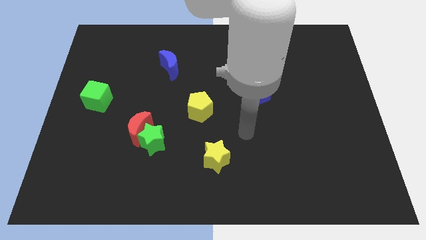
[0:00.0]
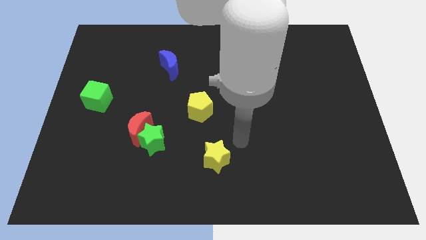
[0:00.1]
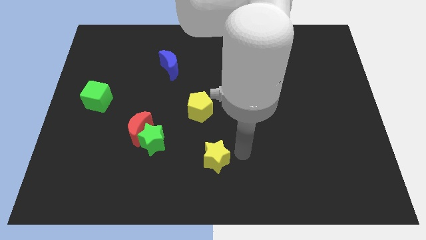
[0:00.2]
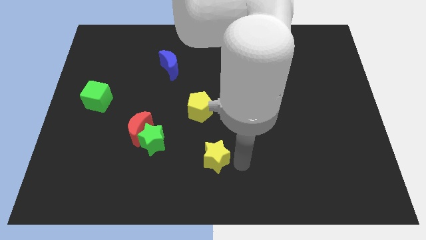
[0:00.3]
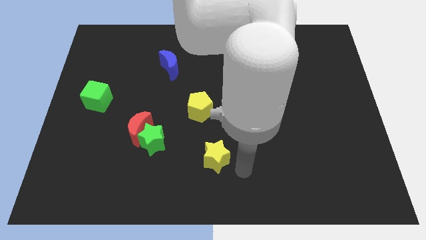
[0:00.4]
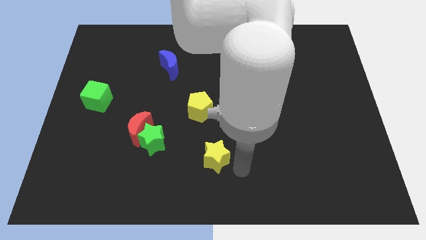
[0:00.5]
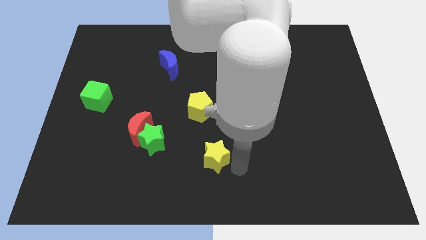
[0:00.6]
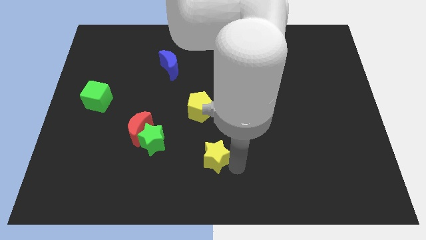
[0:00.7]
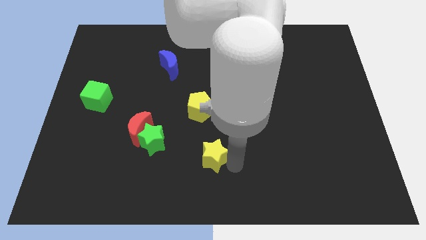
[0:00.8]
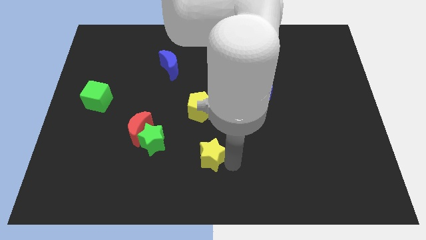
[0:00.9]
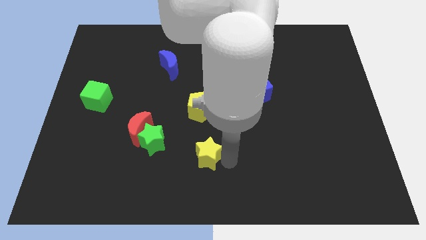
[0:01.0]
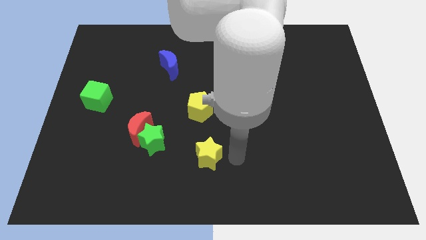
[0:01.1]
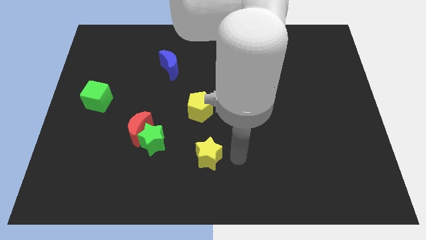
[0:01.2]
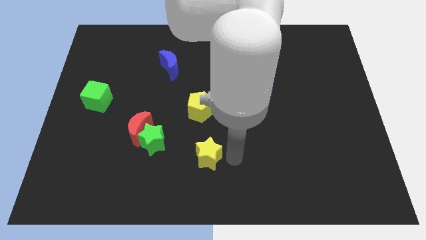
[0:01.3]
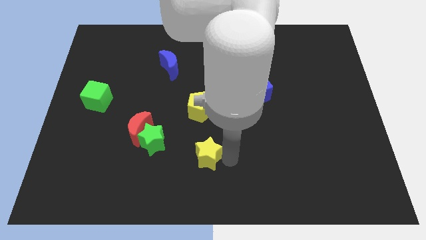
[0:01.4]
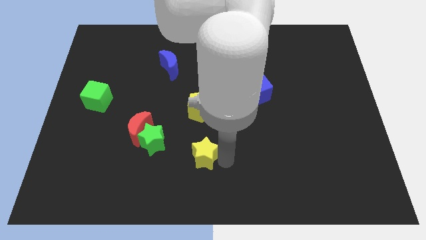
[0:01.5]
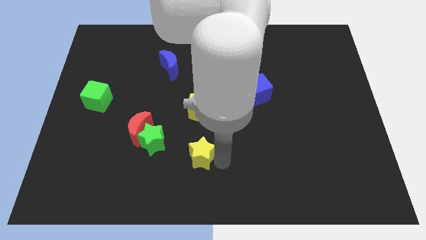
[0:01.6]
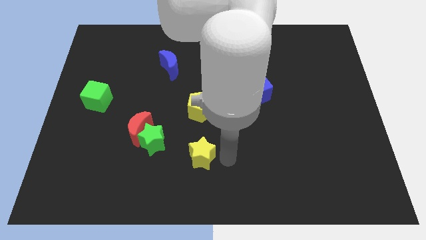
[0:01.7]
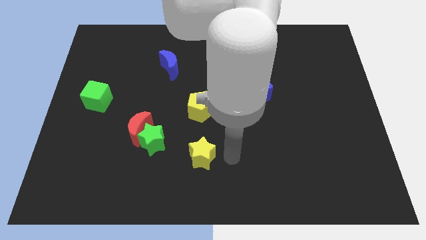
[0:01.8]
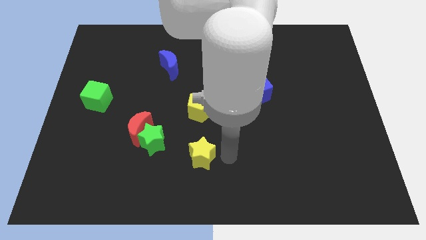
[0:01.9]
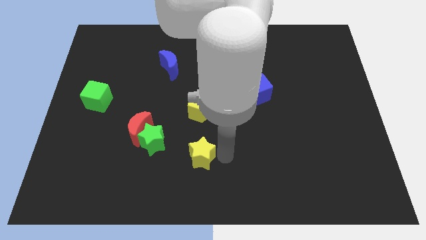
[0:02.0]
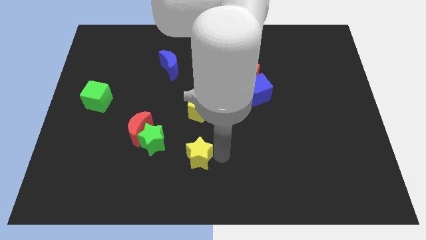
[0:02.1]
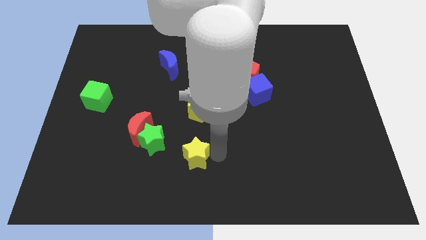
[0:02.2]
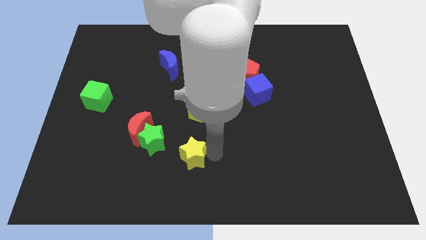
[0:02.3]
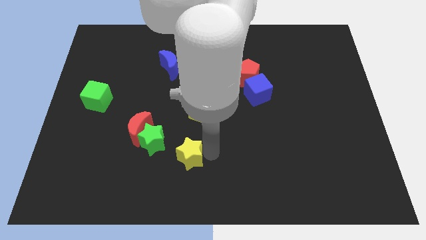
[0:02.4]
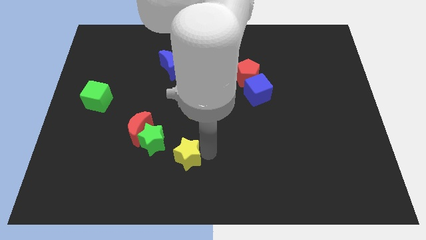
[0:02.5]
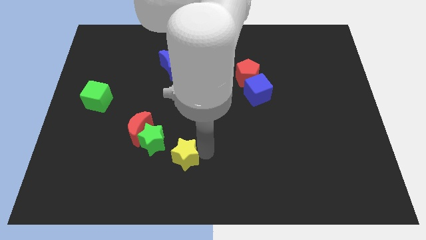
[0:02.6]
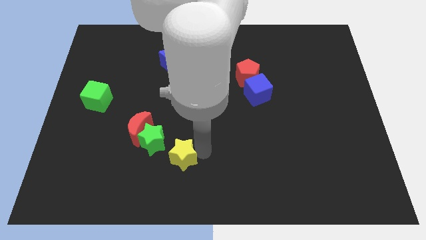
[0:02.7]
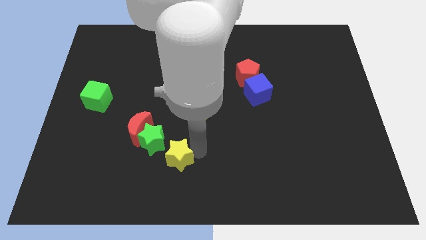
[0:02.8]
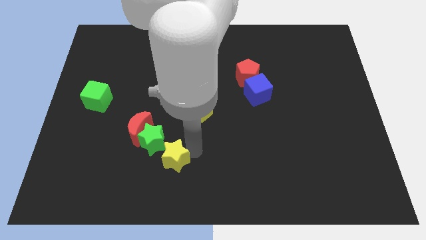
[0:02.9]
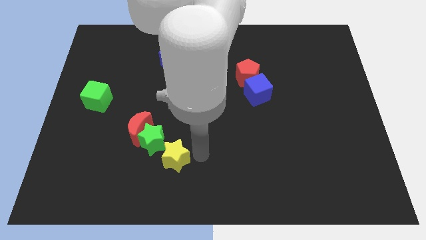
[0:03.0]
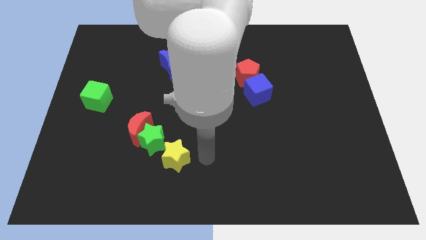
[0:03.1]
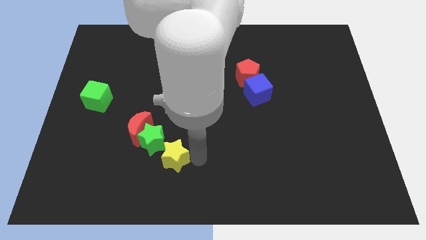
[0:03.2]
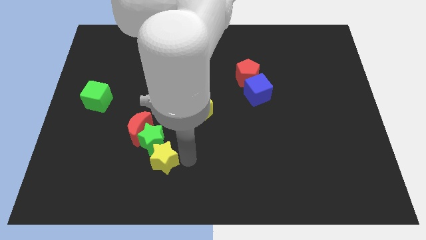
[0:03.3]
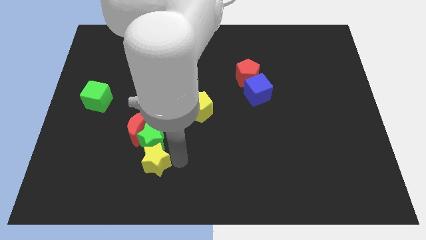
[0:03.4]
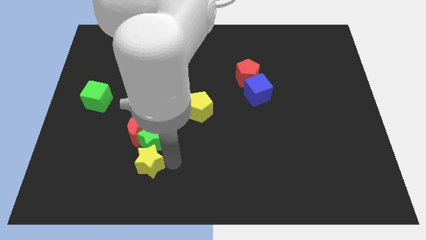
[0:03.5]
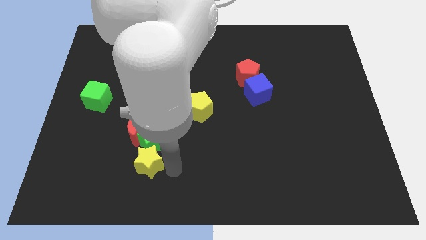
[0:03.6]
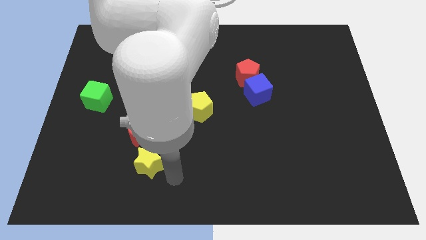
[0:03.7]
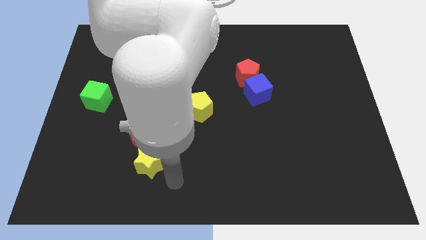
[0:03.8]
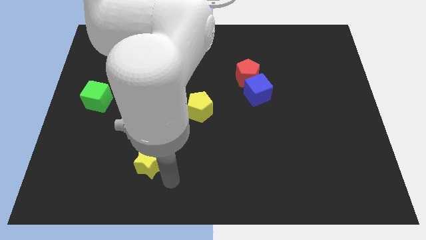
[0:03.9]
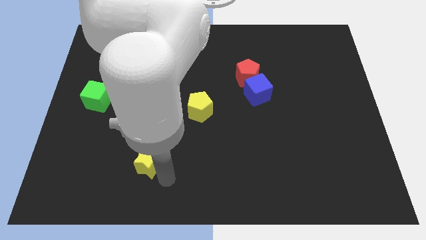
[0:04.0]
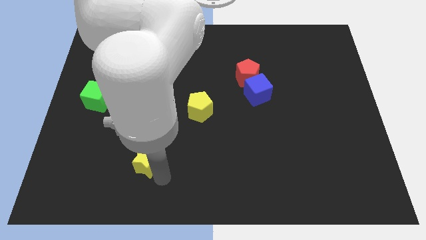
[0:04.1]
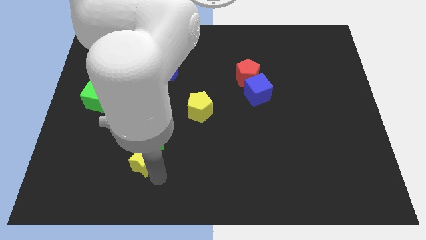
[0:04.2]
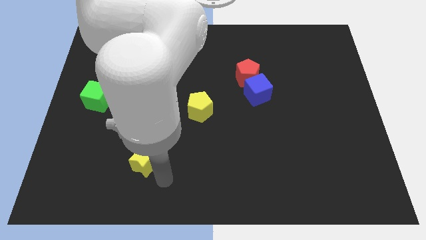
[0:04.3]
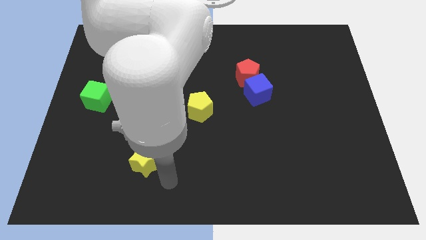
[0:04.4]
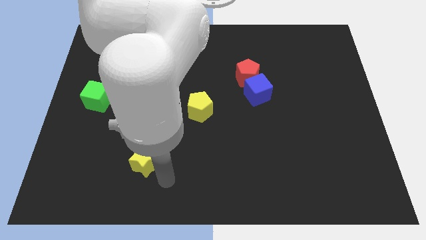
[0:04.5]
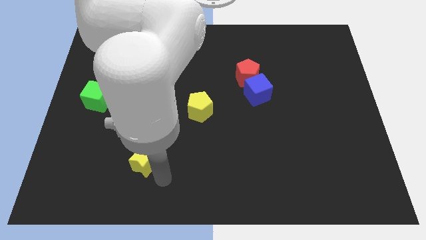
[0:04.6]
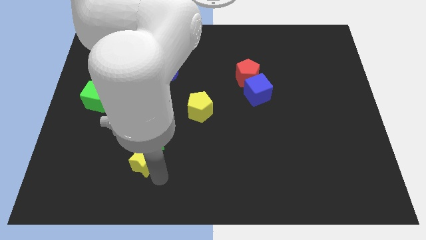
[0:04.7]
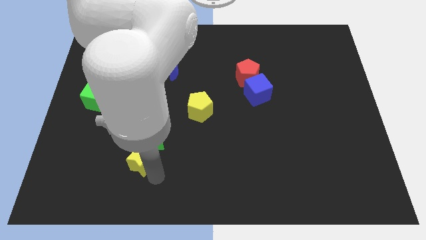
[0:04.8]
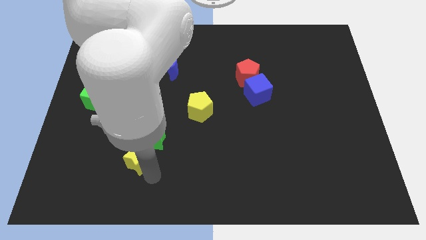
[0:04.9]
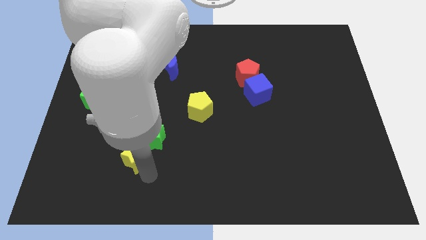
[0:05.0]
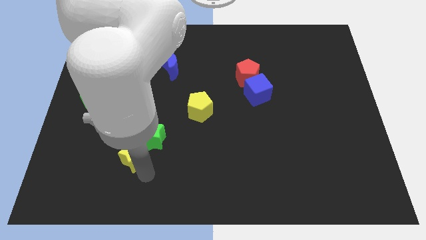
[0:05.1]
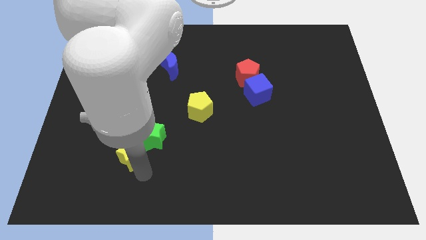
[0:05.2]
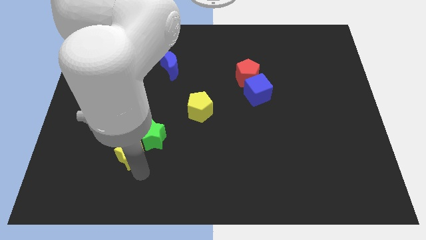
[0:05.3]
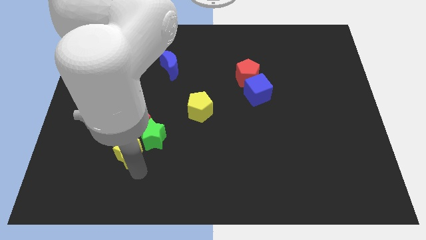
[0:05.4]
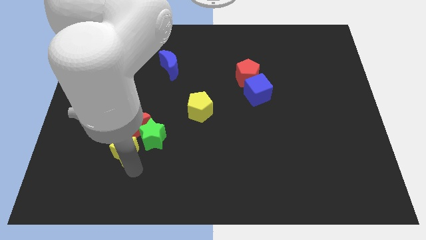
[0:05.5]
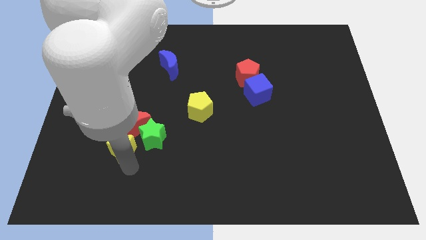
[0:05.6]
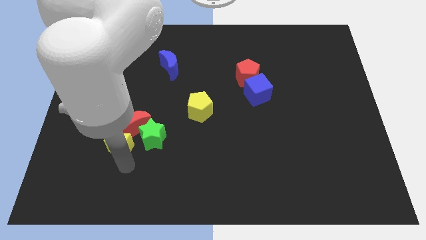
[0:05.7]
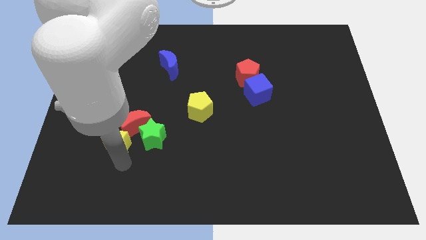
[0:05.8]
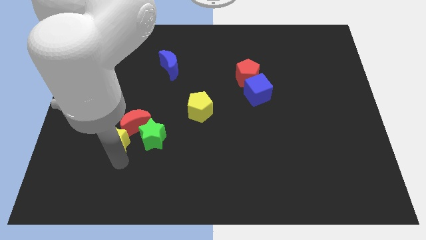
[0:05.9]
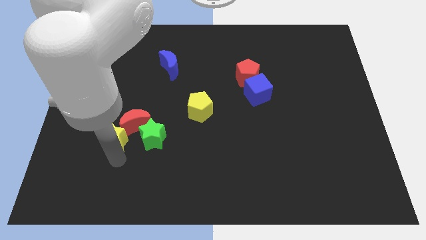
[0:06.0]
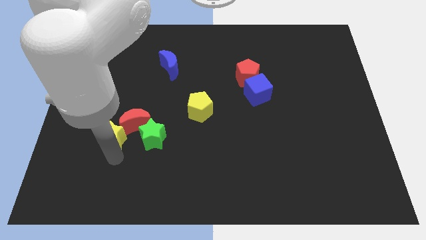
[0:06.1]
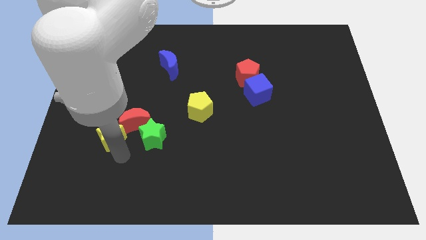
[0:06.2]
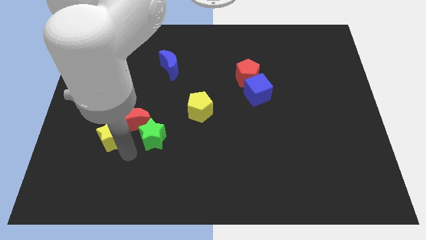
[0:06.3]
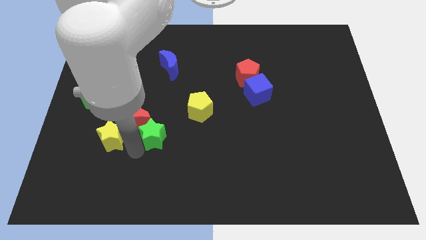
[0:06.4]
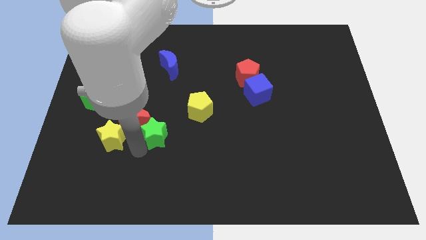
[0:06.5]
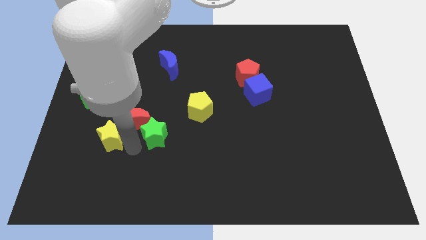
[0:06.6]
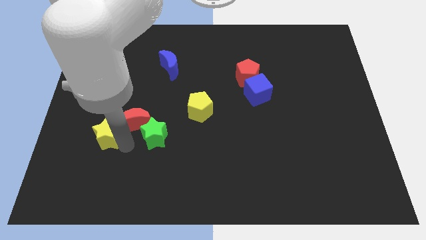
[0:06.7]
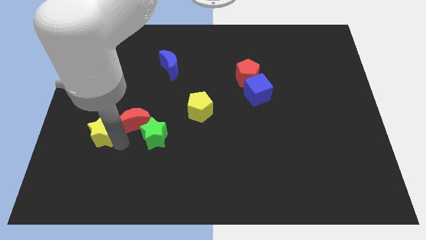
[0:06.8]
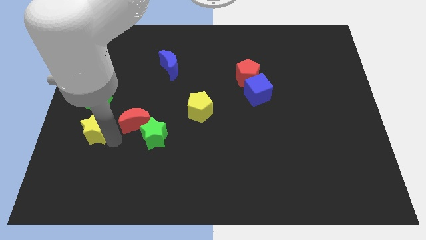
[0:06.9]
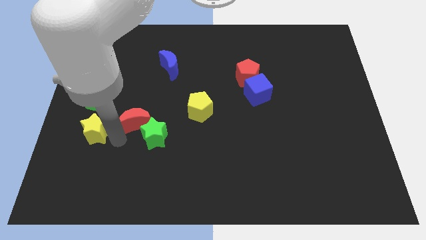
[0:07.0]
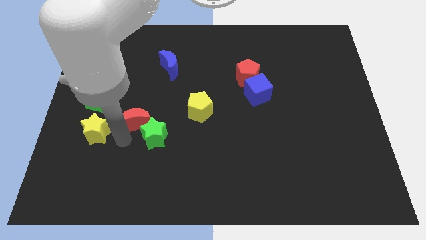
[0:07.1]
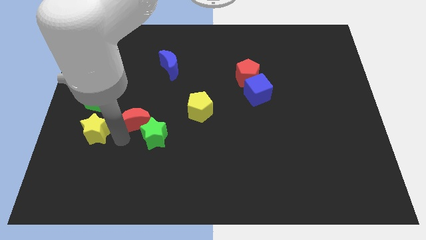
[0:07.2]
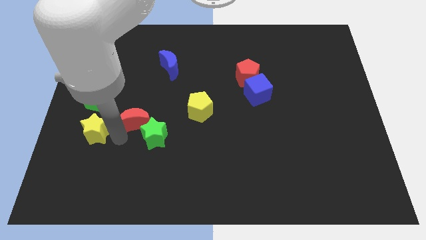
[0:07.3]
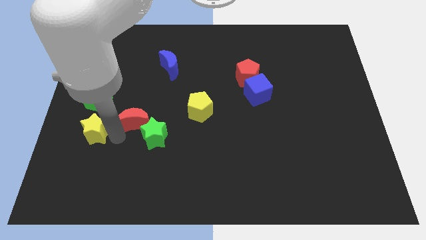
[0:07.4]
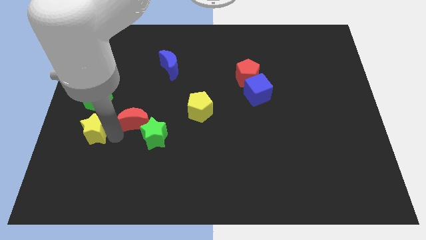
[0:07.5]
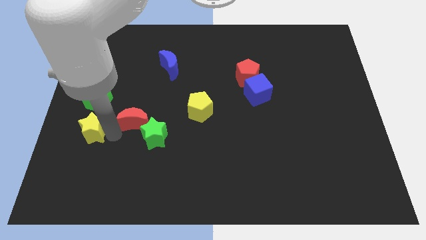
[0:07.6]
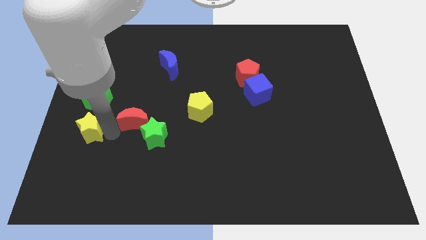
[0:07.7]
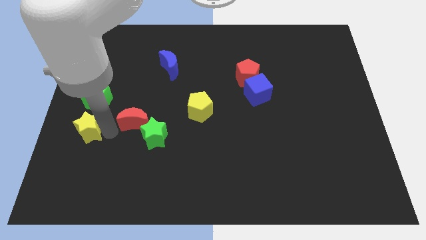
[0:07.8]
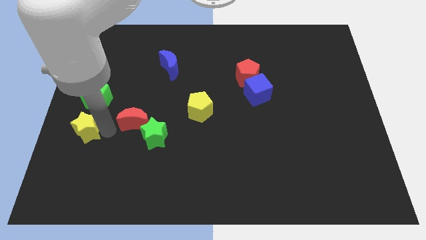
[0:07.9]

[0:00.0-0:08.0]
push the yellow star to the center left
